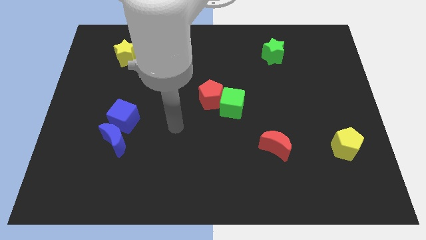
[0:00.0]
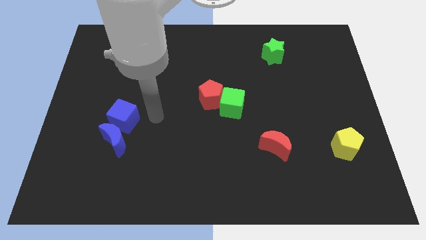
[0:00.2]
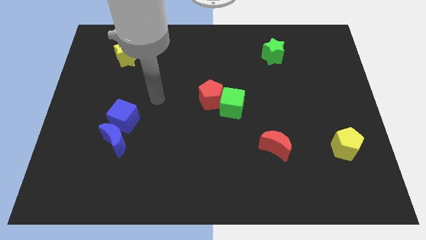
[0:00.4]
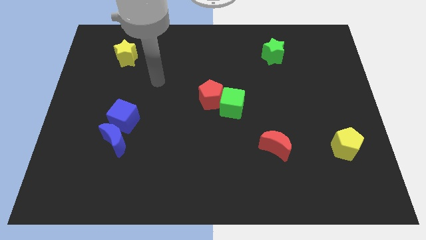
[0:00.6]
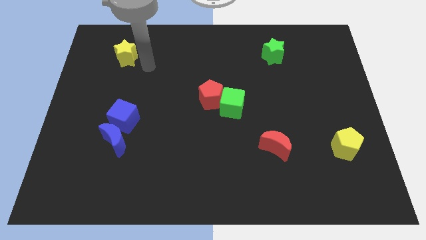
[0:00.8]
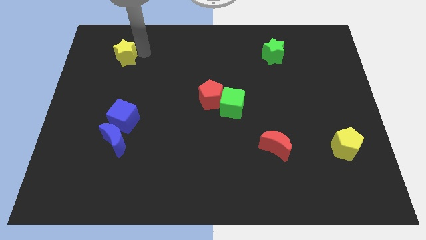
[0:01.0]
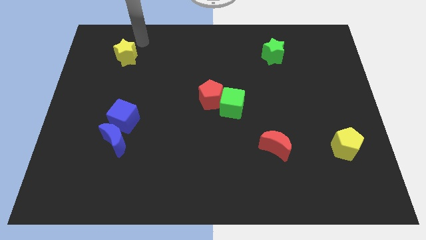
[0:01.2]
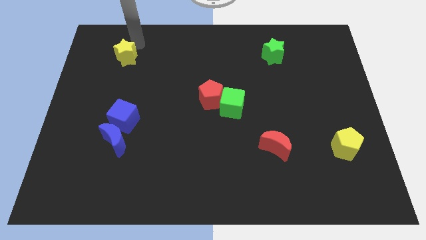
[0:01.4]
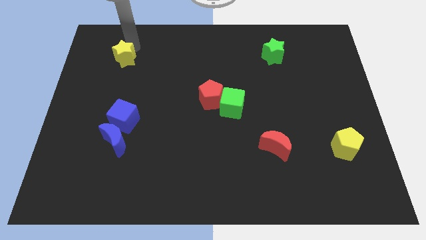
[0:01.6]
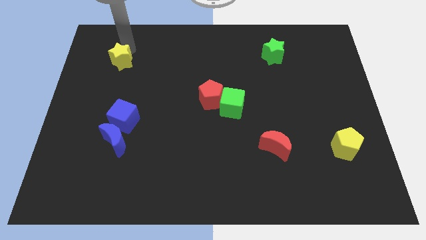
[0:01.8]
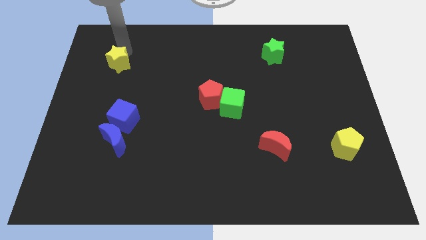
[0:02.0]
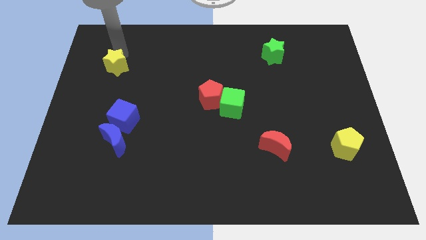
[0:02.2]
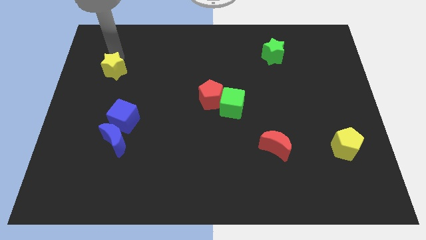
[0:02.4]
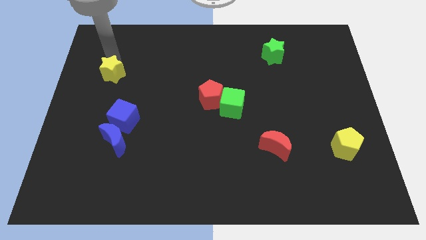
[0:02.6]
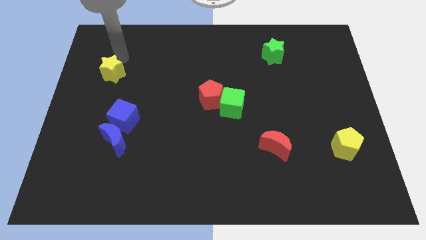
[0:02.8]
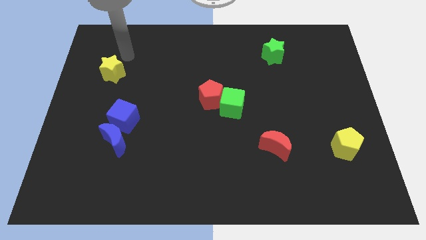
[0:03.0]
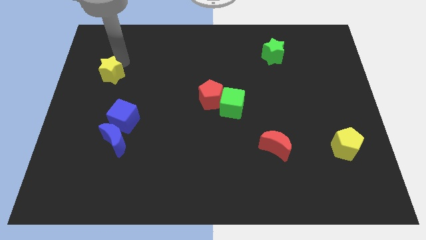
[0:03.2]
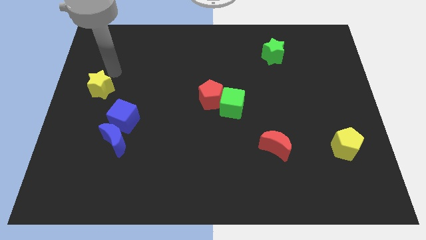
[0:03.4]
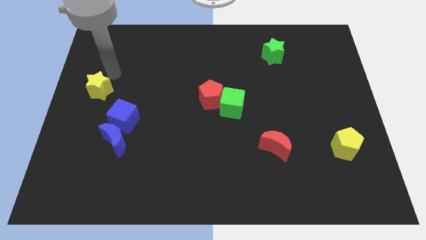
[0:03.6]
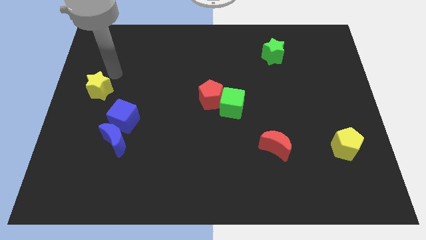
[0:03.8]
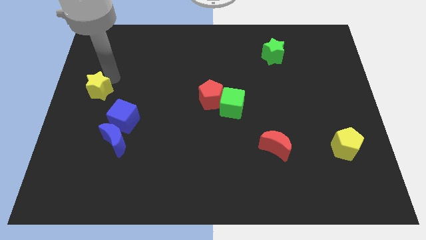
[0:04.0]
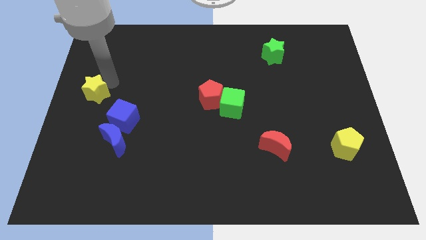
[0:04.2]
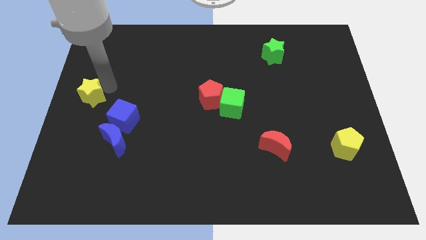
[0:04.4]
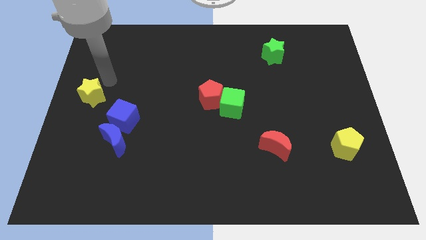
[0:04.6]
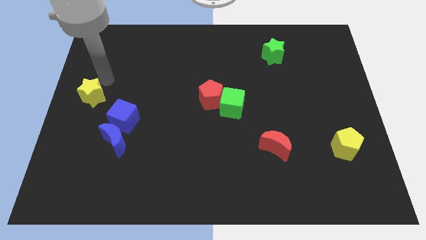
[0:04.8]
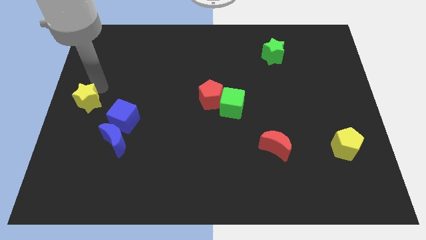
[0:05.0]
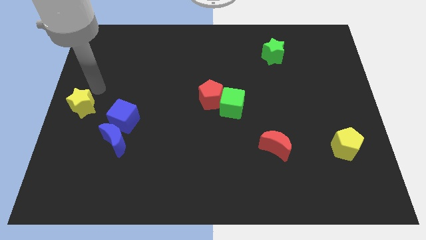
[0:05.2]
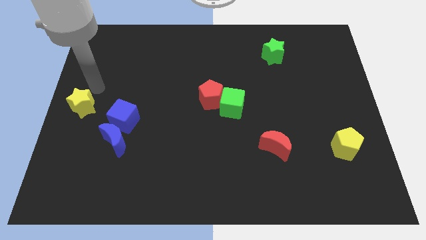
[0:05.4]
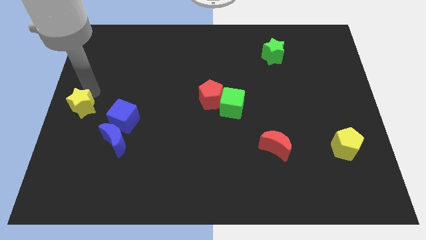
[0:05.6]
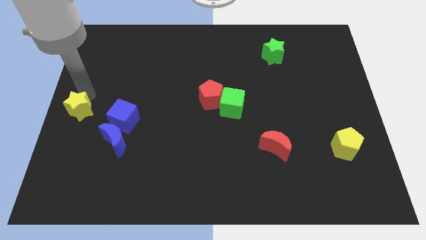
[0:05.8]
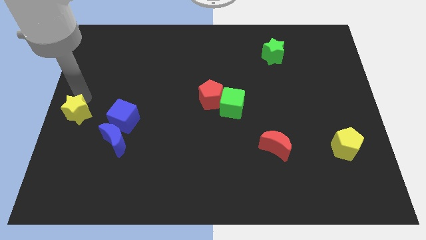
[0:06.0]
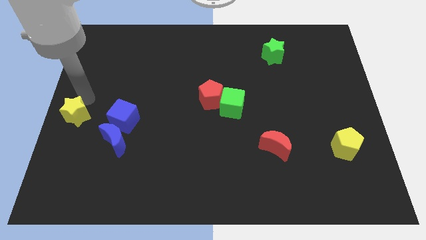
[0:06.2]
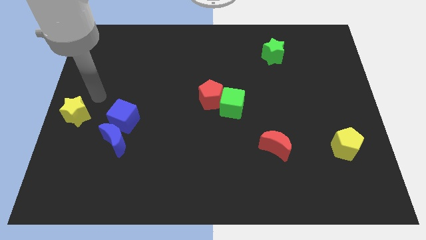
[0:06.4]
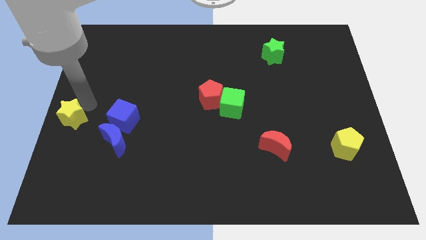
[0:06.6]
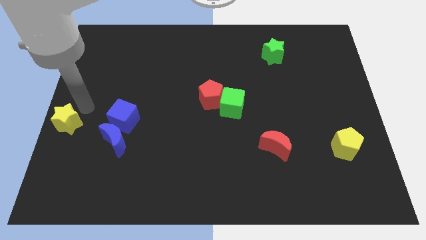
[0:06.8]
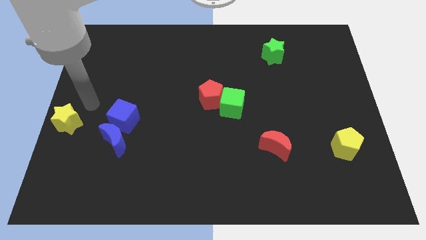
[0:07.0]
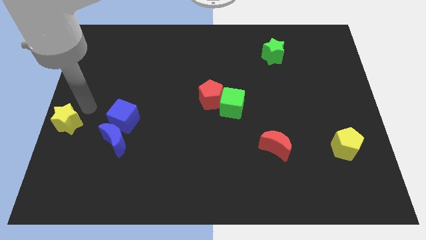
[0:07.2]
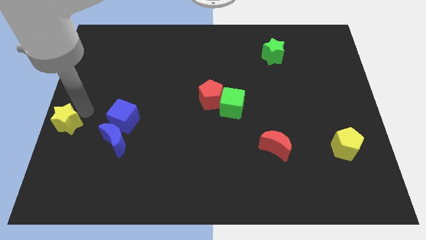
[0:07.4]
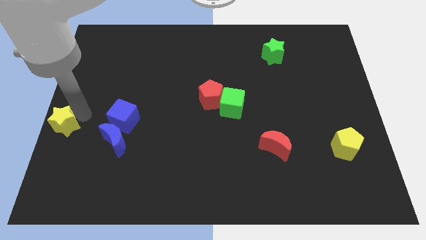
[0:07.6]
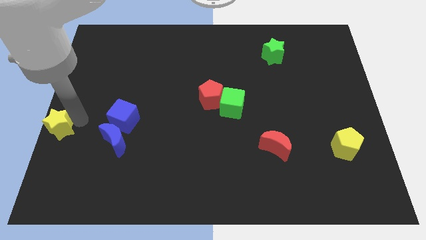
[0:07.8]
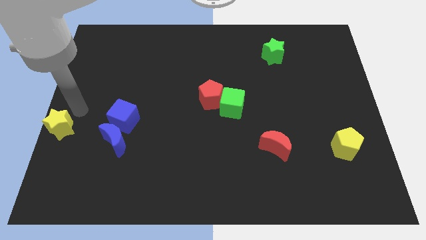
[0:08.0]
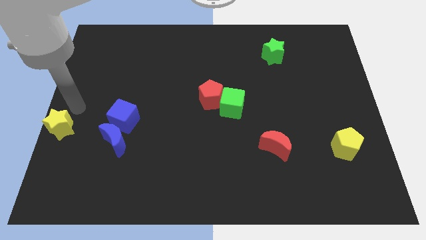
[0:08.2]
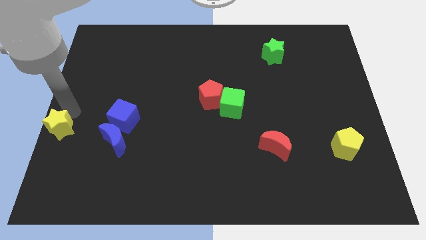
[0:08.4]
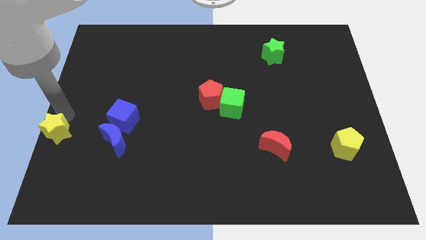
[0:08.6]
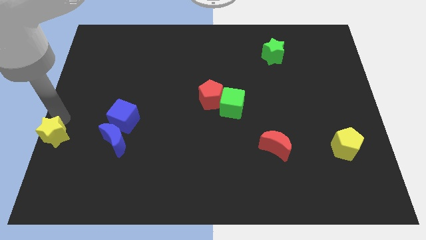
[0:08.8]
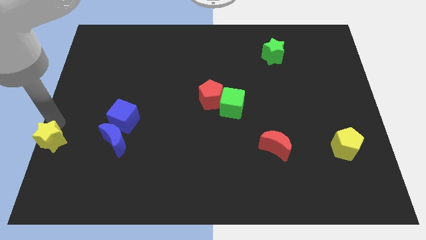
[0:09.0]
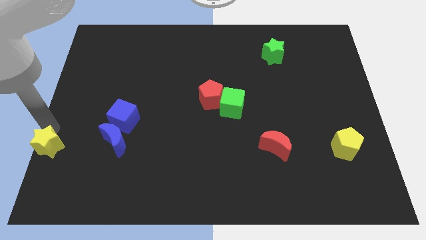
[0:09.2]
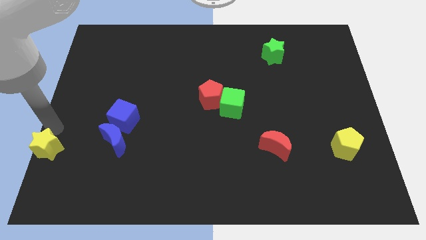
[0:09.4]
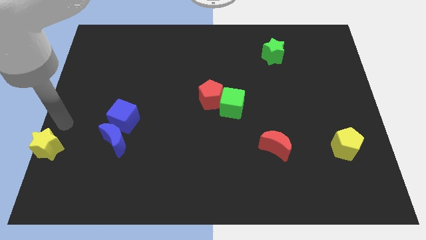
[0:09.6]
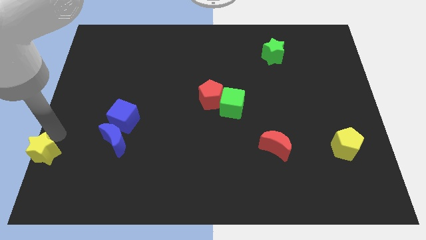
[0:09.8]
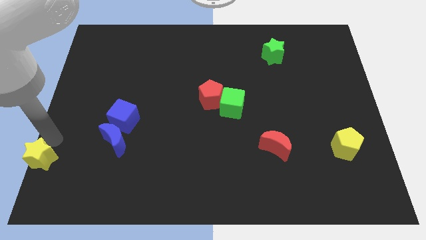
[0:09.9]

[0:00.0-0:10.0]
put the yellow star to the bottom left corner

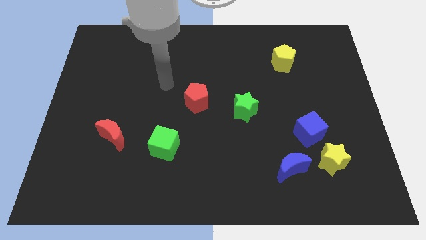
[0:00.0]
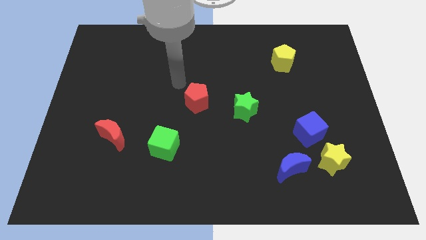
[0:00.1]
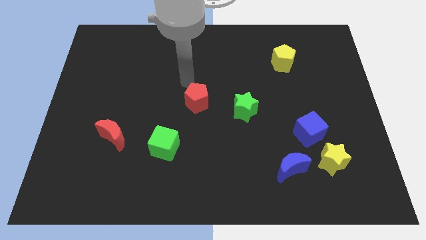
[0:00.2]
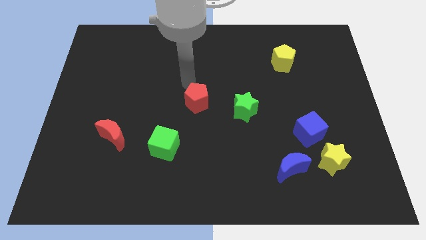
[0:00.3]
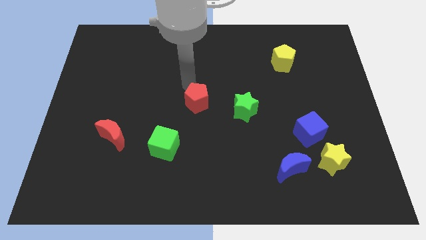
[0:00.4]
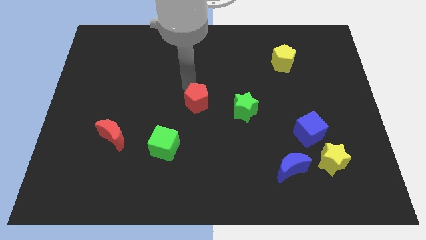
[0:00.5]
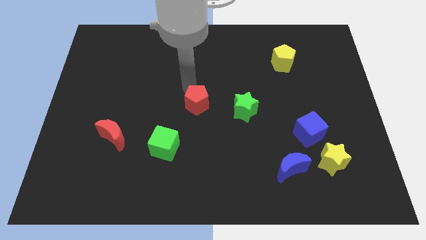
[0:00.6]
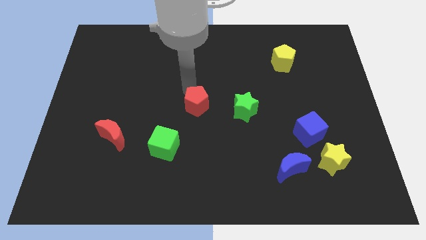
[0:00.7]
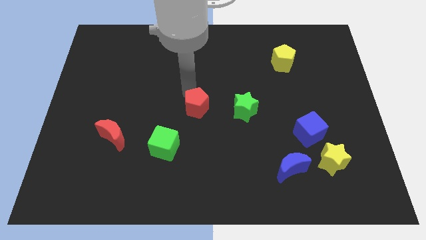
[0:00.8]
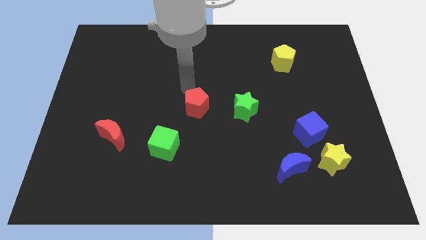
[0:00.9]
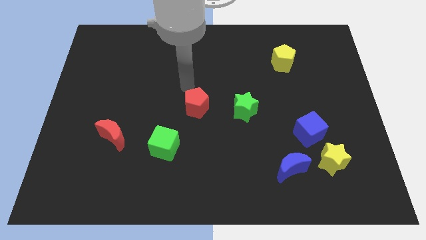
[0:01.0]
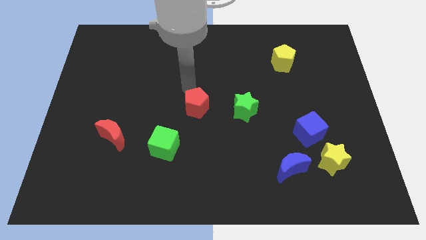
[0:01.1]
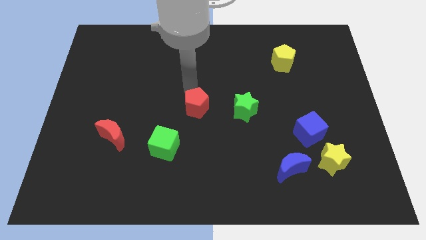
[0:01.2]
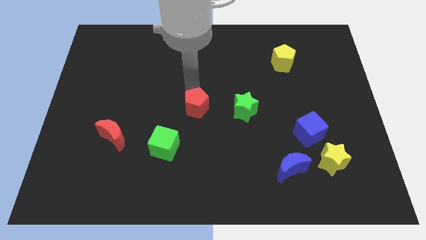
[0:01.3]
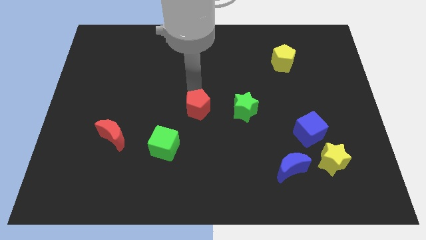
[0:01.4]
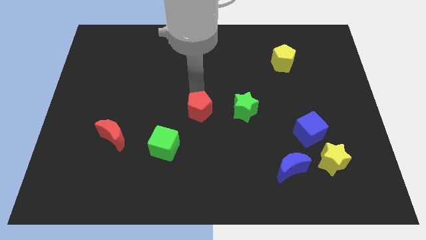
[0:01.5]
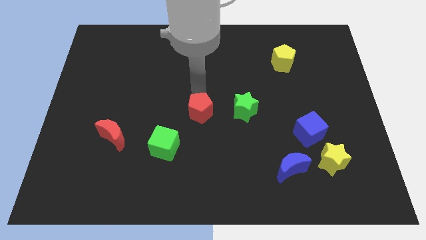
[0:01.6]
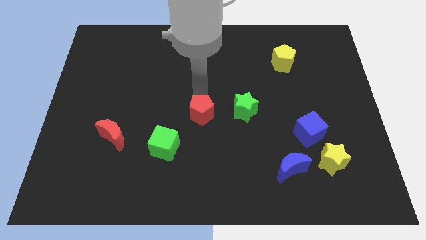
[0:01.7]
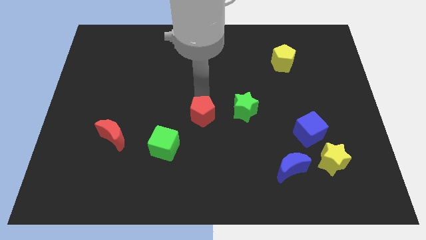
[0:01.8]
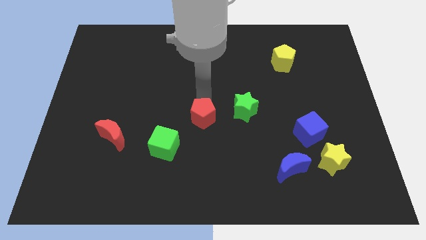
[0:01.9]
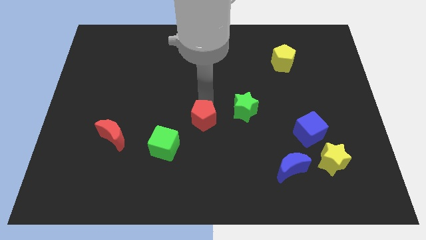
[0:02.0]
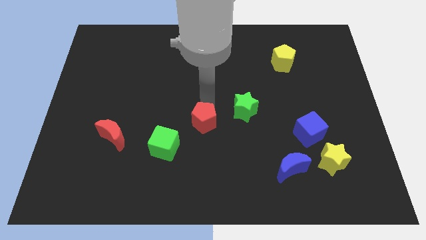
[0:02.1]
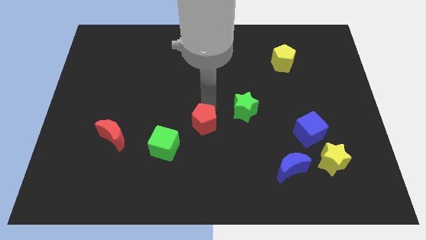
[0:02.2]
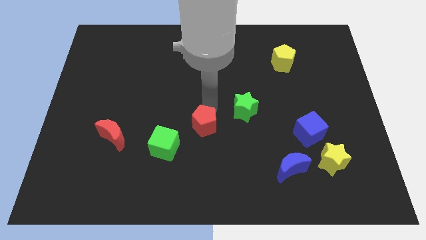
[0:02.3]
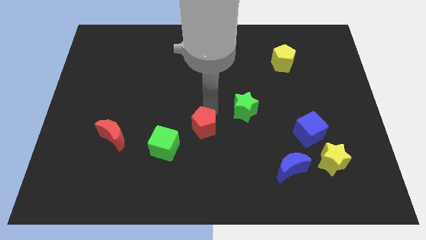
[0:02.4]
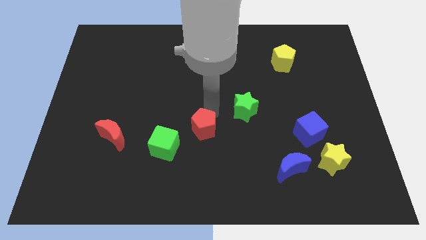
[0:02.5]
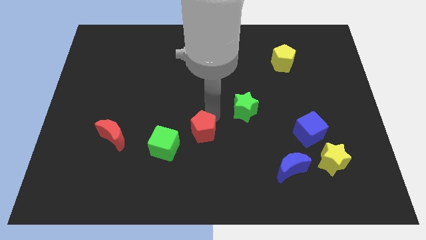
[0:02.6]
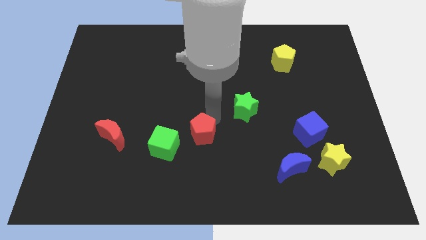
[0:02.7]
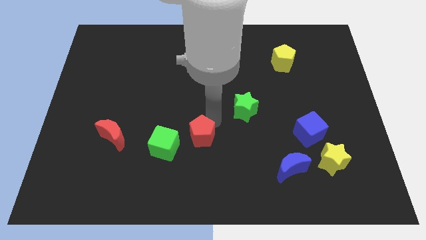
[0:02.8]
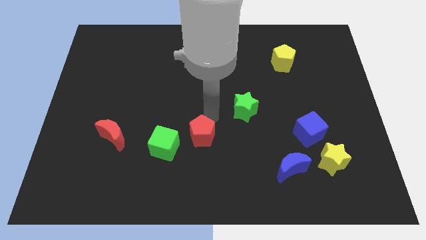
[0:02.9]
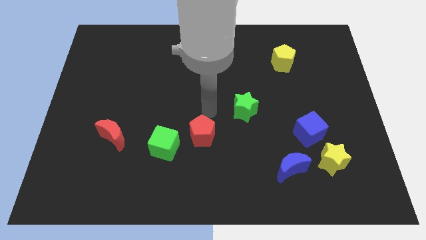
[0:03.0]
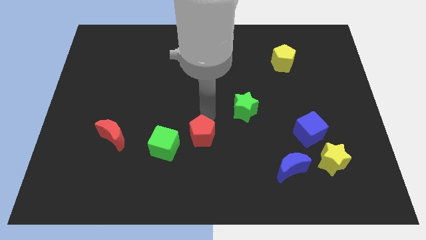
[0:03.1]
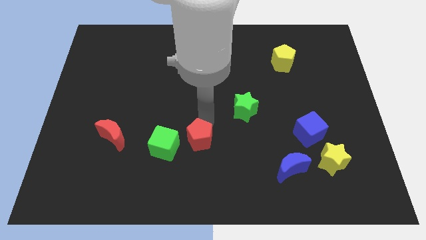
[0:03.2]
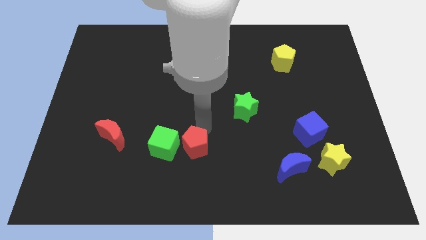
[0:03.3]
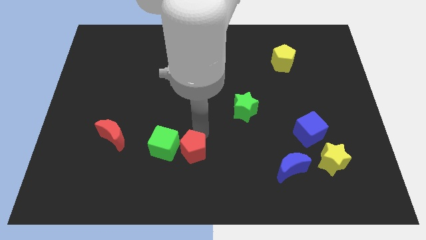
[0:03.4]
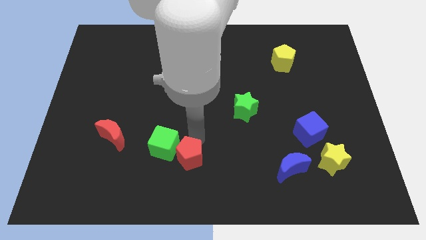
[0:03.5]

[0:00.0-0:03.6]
move the red pentagon to the bottom side
